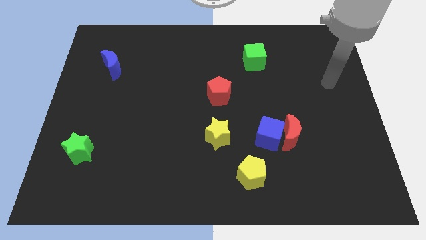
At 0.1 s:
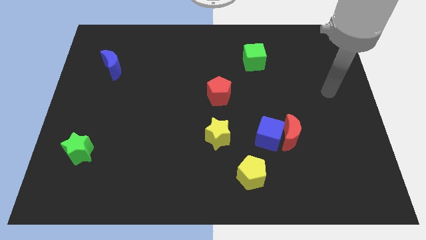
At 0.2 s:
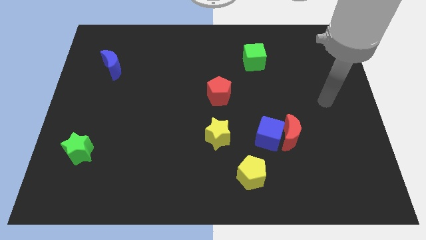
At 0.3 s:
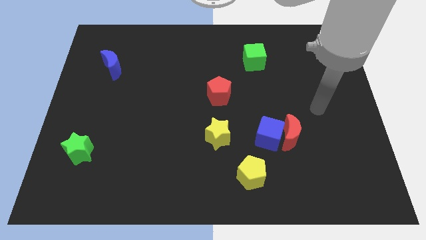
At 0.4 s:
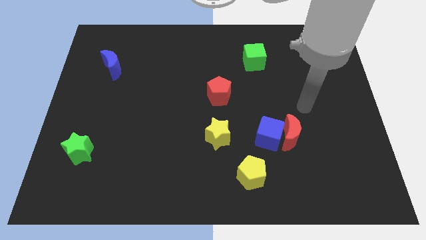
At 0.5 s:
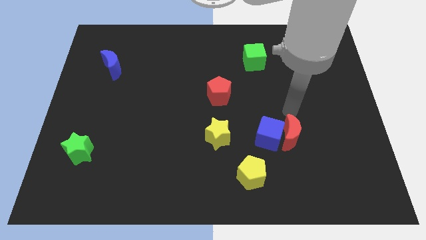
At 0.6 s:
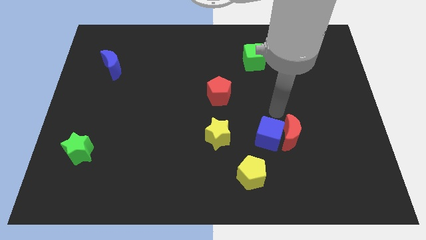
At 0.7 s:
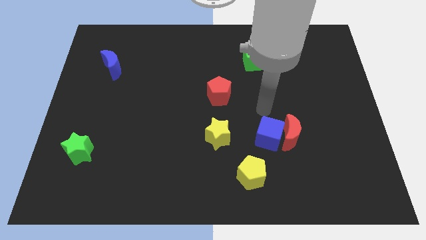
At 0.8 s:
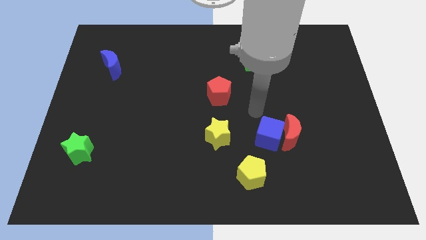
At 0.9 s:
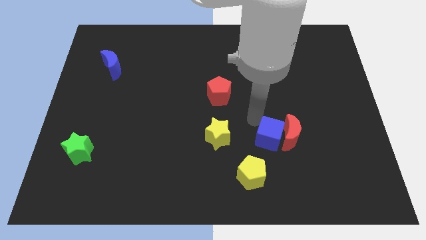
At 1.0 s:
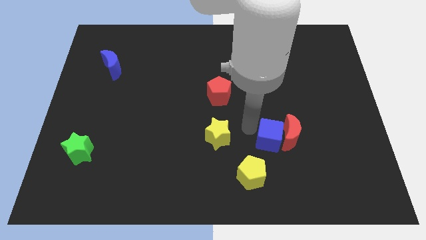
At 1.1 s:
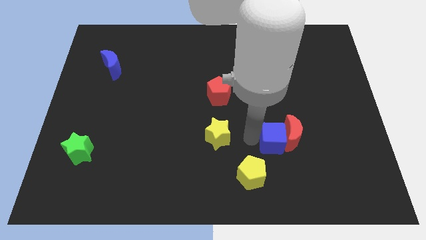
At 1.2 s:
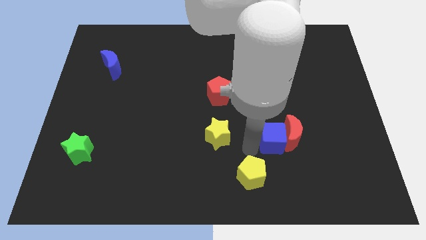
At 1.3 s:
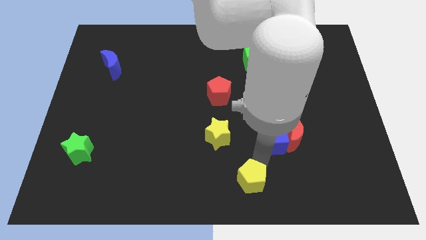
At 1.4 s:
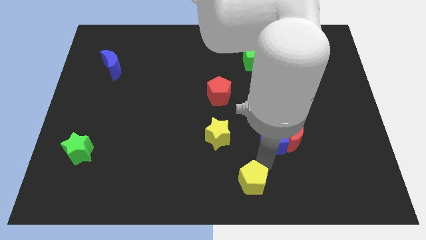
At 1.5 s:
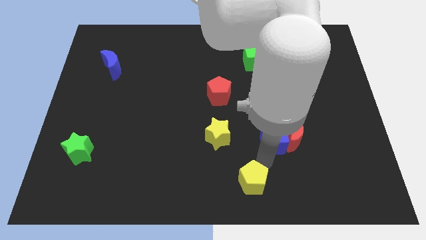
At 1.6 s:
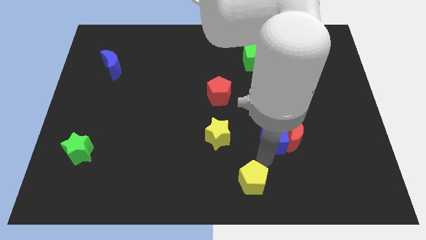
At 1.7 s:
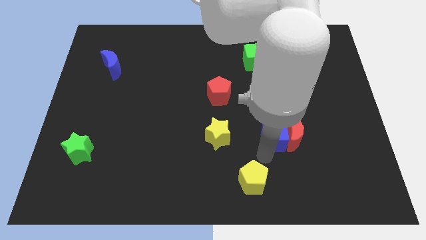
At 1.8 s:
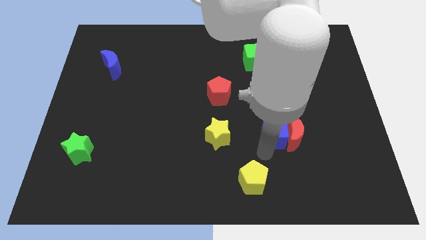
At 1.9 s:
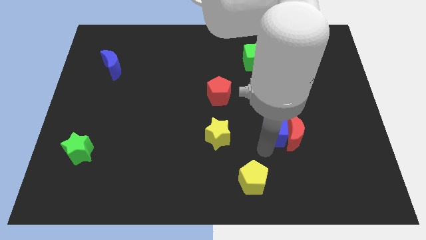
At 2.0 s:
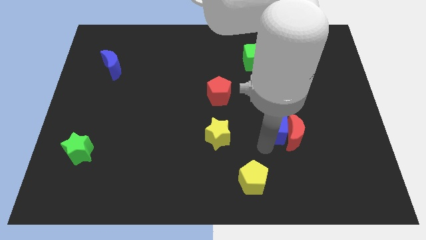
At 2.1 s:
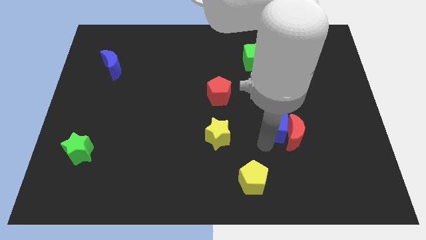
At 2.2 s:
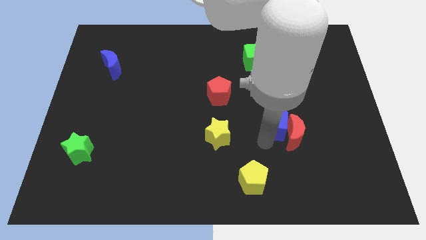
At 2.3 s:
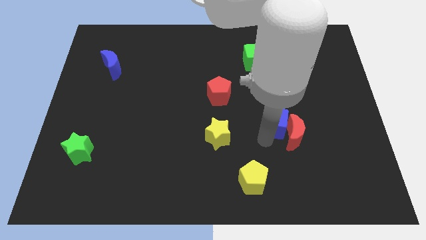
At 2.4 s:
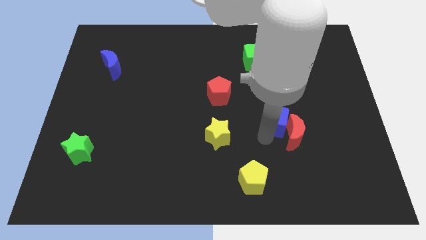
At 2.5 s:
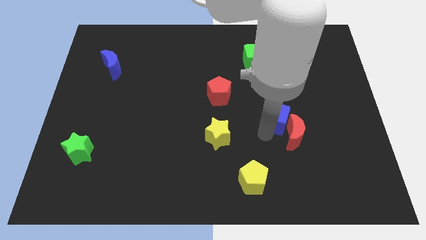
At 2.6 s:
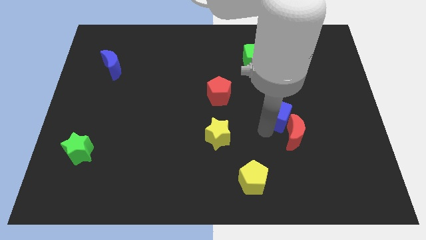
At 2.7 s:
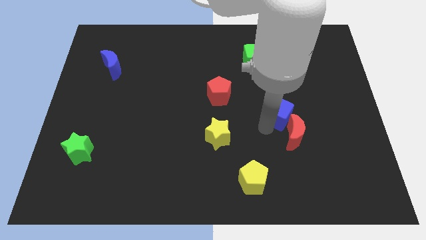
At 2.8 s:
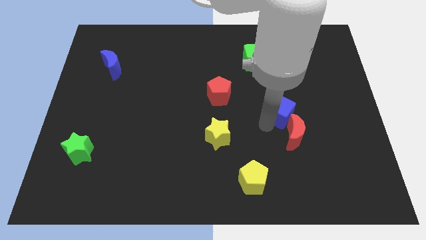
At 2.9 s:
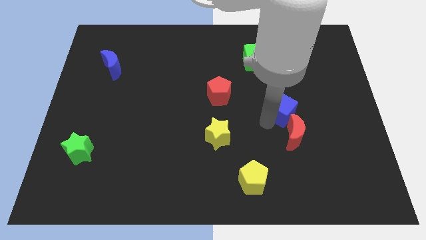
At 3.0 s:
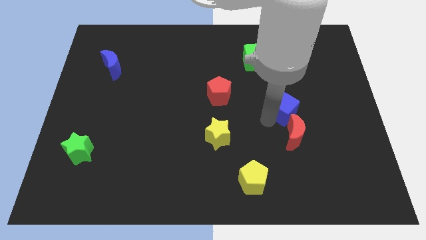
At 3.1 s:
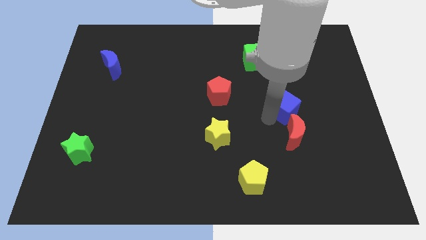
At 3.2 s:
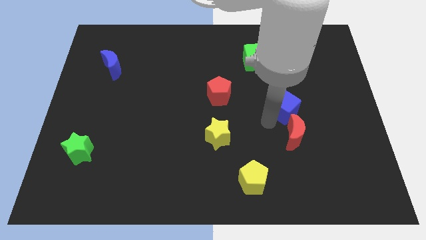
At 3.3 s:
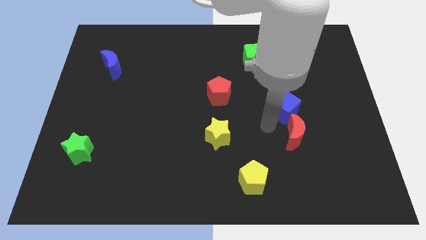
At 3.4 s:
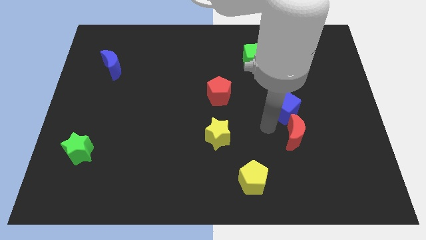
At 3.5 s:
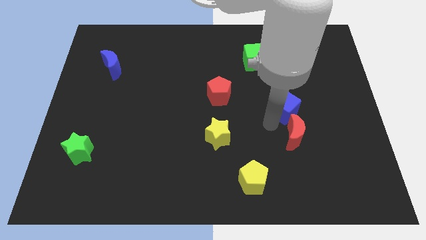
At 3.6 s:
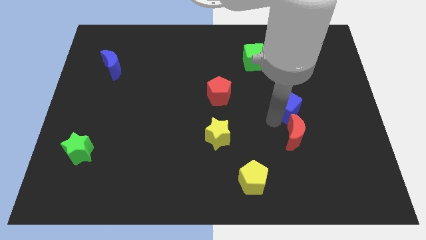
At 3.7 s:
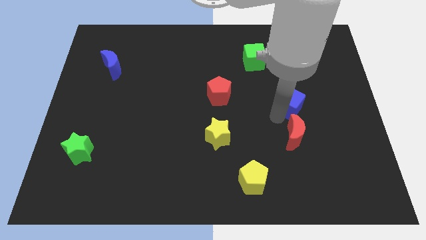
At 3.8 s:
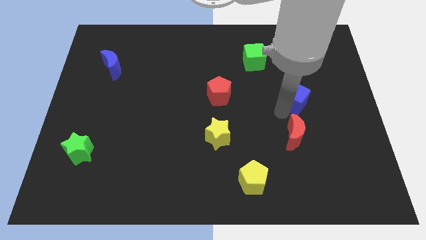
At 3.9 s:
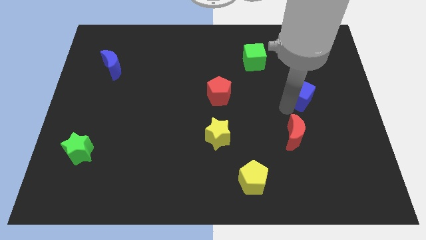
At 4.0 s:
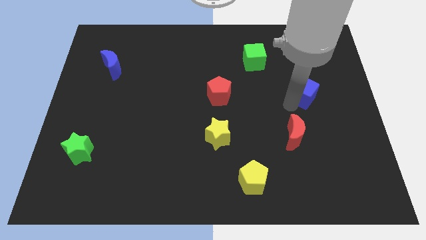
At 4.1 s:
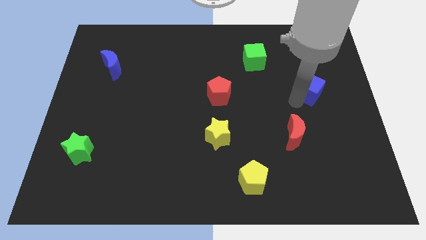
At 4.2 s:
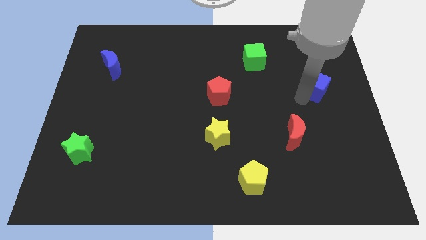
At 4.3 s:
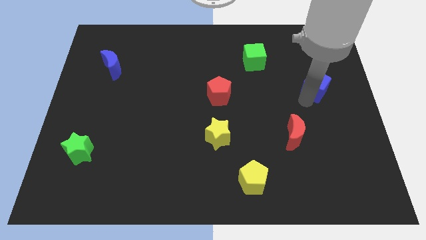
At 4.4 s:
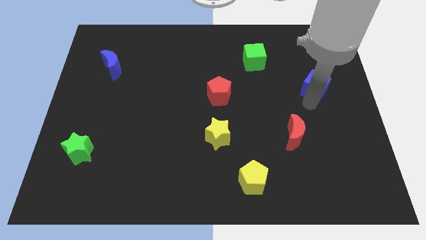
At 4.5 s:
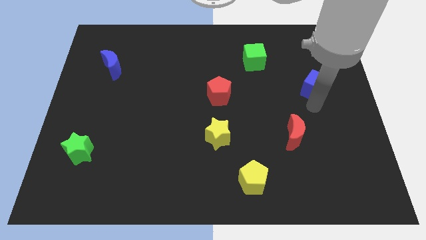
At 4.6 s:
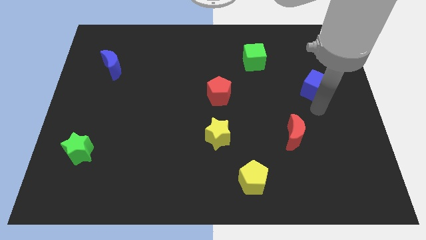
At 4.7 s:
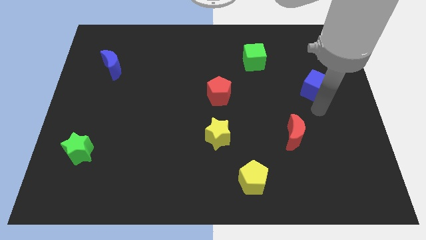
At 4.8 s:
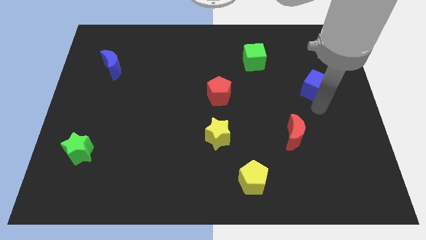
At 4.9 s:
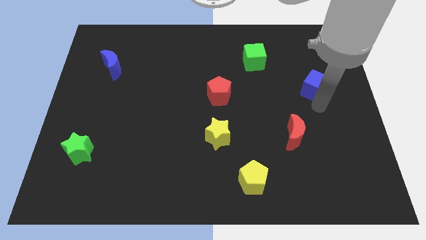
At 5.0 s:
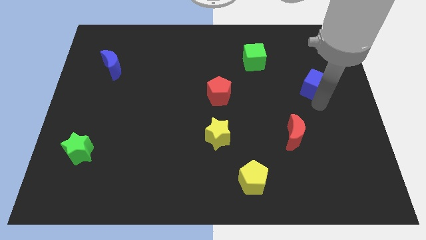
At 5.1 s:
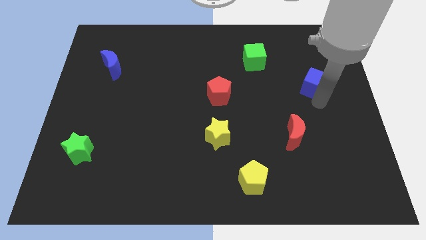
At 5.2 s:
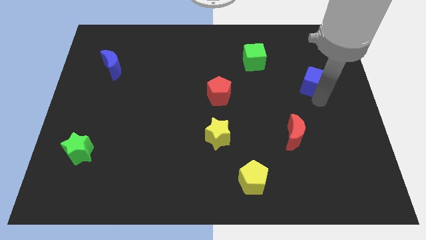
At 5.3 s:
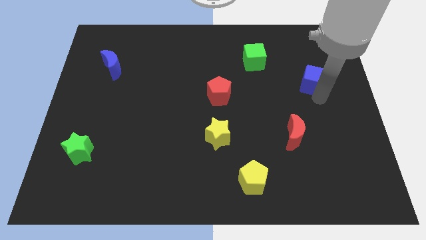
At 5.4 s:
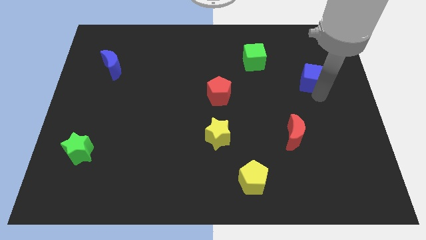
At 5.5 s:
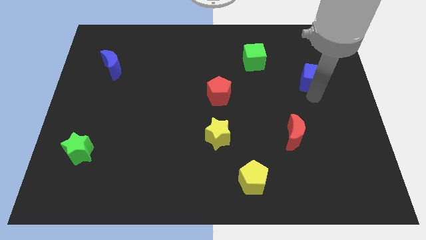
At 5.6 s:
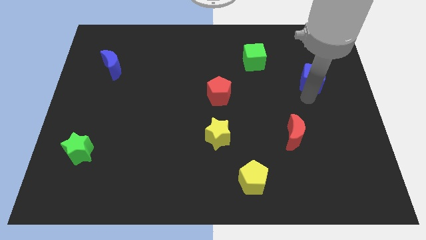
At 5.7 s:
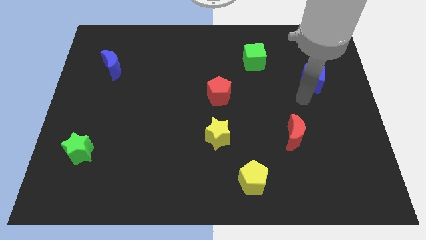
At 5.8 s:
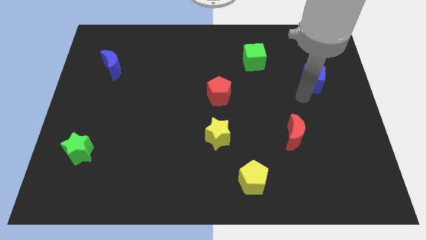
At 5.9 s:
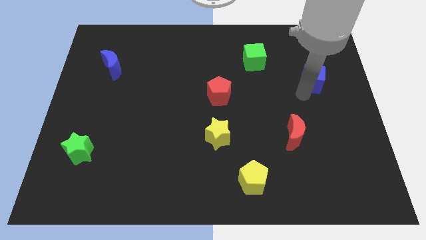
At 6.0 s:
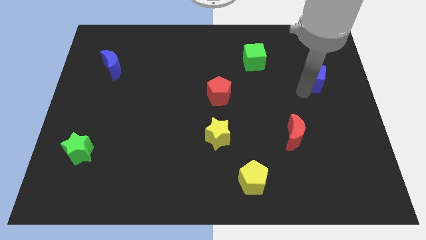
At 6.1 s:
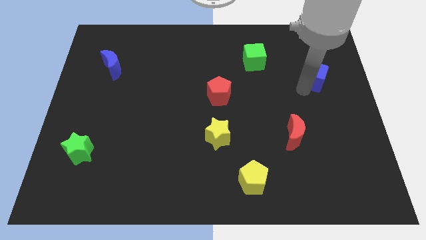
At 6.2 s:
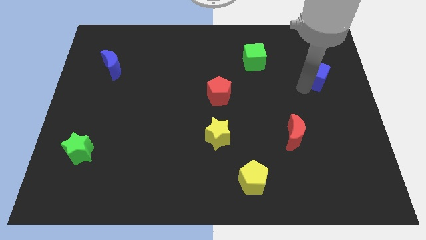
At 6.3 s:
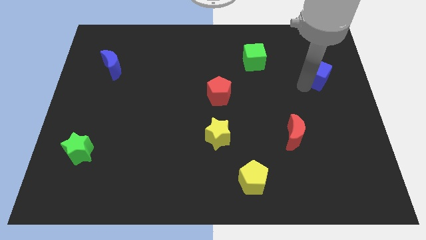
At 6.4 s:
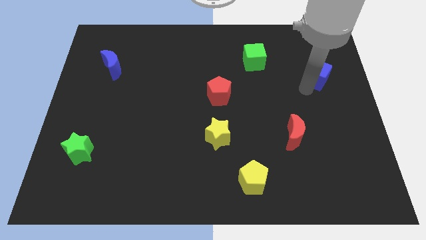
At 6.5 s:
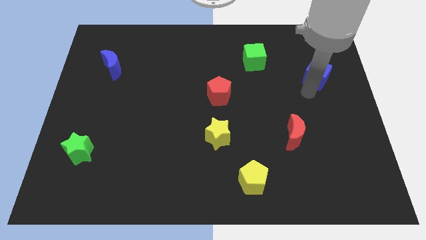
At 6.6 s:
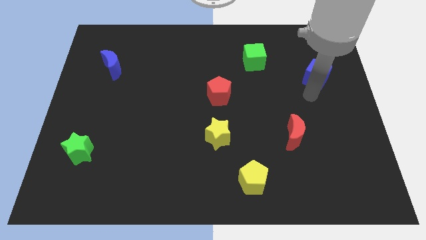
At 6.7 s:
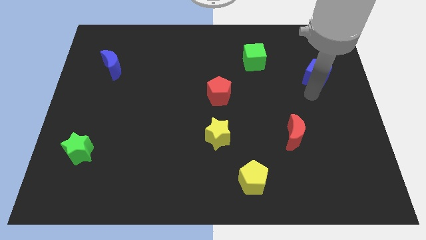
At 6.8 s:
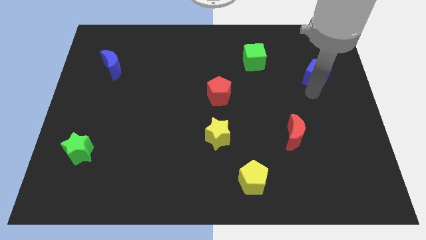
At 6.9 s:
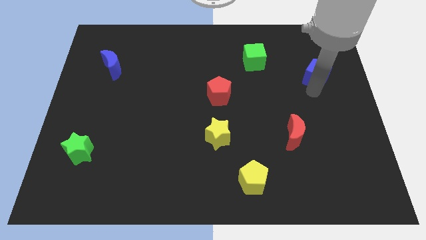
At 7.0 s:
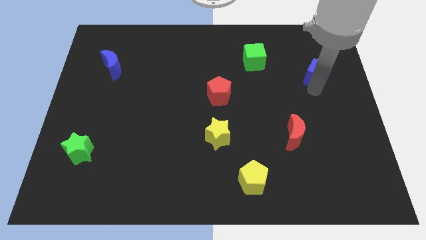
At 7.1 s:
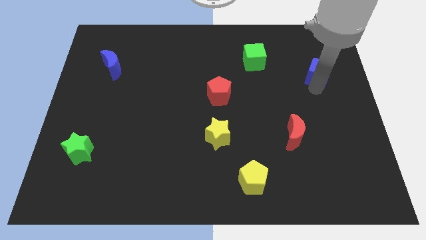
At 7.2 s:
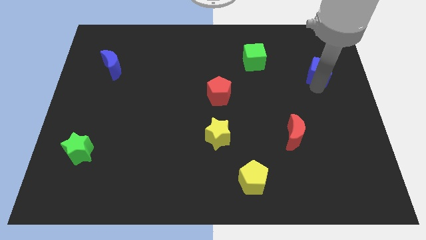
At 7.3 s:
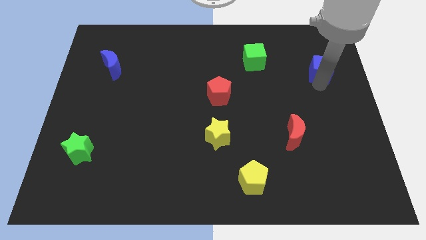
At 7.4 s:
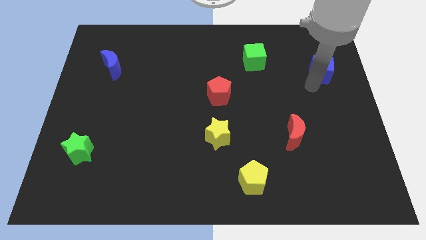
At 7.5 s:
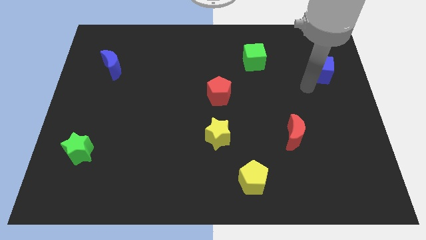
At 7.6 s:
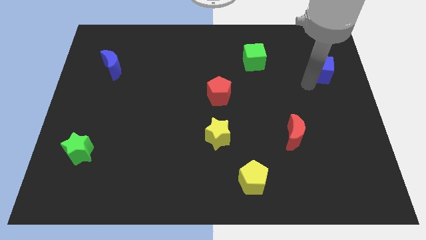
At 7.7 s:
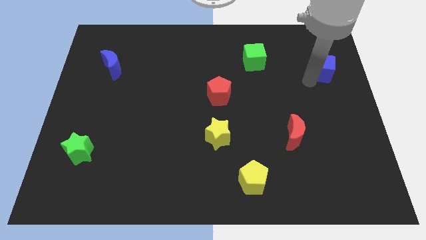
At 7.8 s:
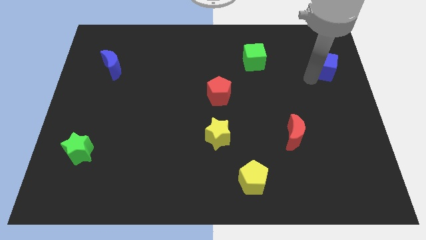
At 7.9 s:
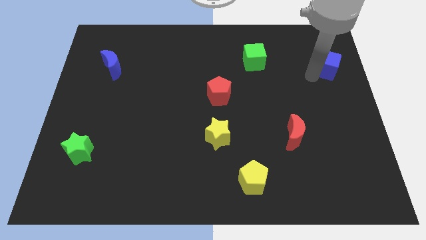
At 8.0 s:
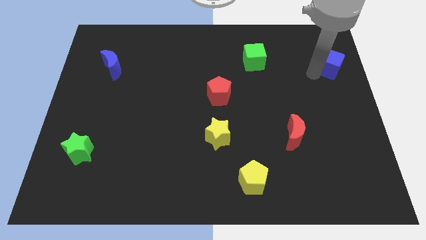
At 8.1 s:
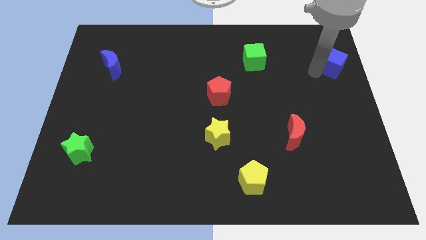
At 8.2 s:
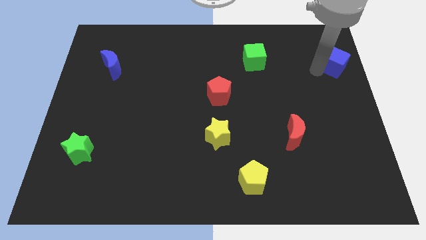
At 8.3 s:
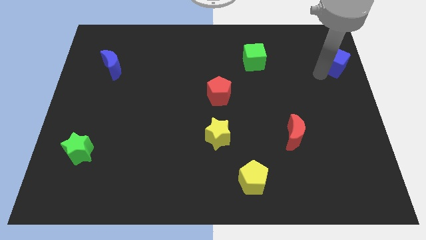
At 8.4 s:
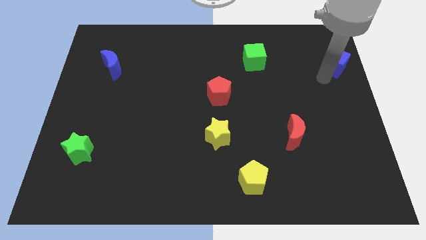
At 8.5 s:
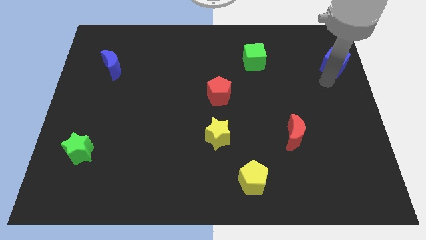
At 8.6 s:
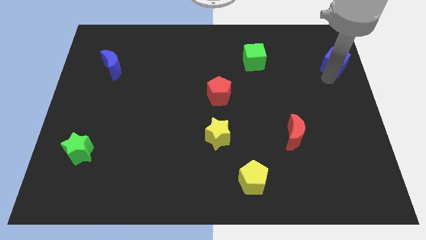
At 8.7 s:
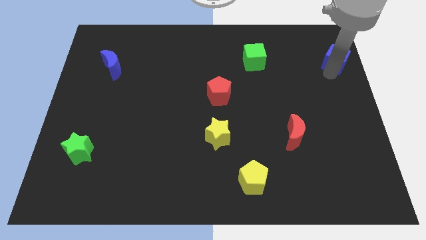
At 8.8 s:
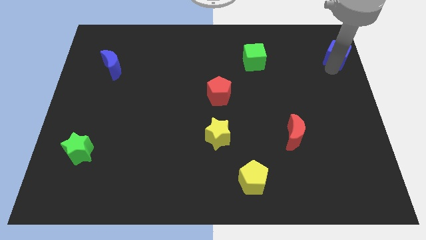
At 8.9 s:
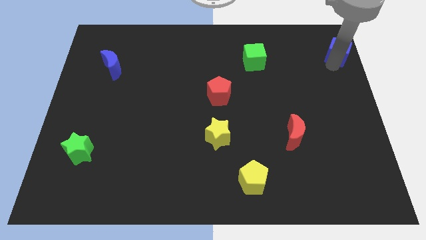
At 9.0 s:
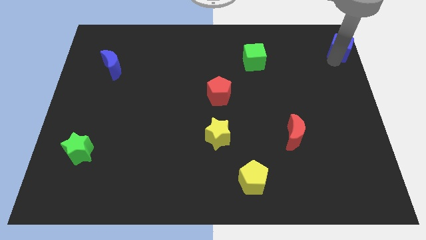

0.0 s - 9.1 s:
move the blue cube to the top right of the board
